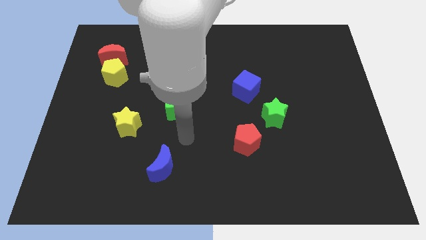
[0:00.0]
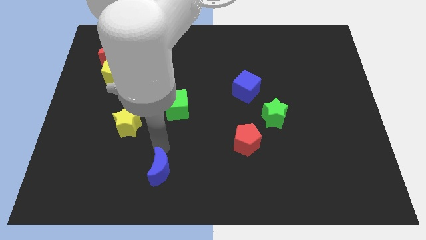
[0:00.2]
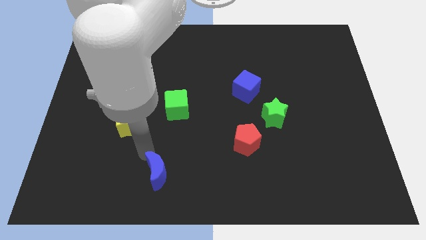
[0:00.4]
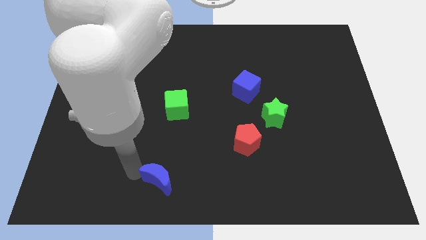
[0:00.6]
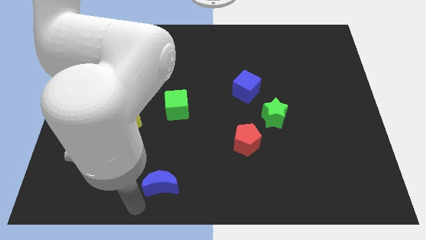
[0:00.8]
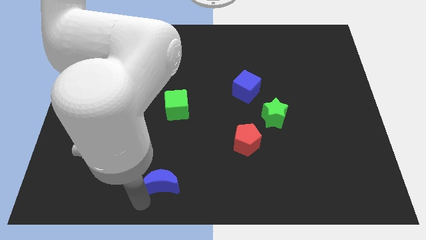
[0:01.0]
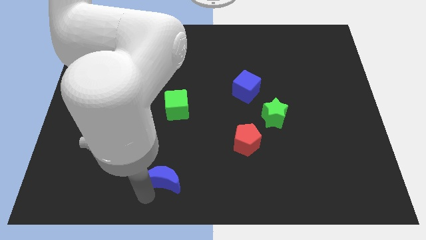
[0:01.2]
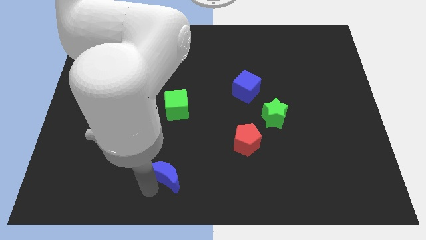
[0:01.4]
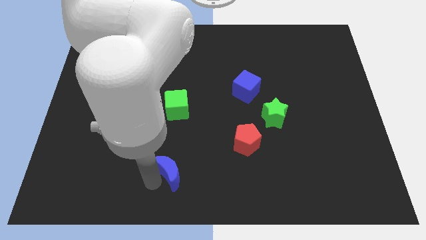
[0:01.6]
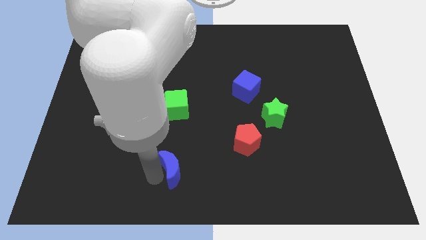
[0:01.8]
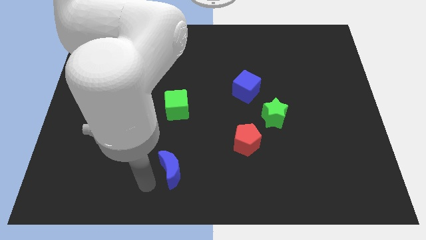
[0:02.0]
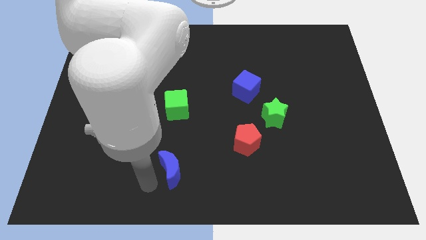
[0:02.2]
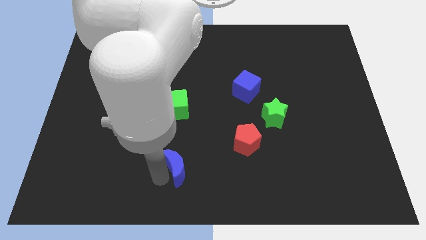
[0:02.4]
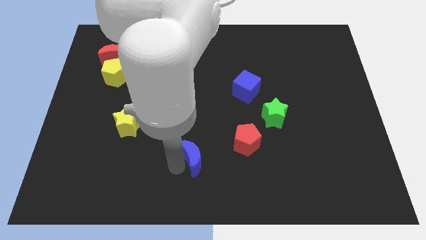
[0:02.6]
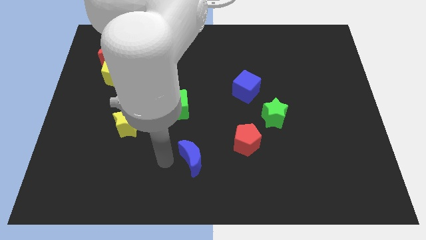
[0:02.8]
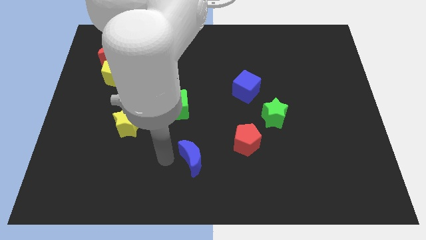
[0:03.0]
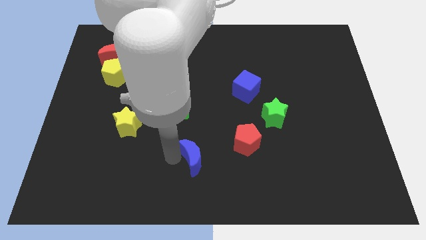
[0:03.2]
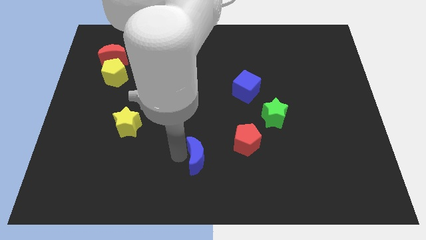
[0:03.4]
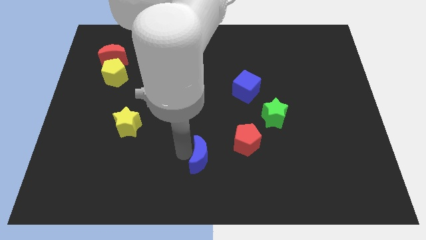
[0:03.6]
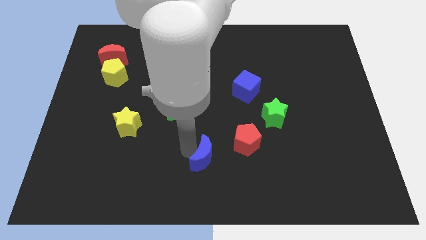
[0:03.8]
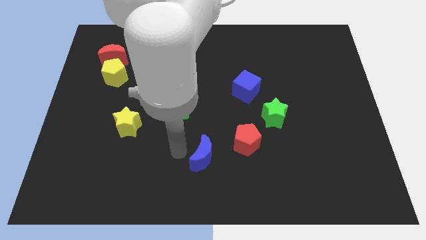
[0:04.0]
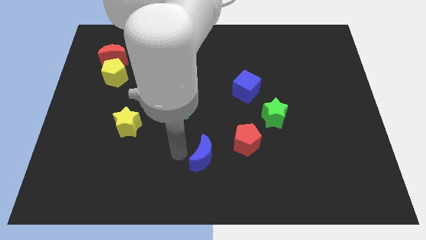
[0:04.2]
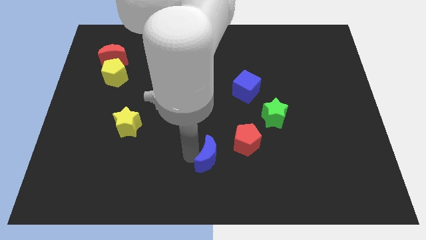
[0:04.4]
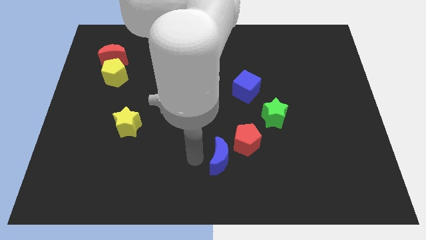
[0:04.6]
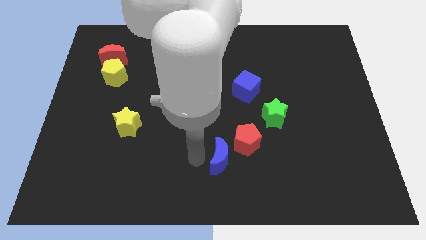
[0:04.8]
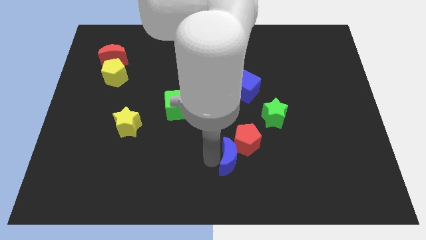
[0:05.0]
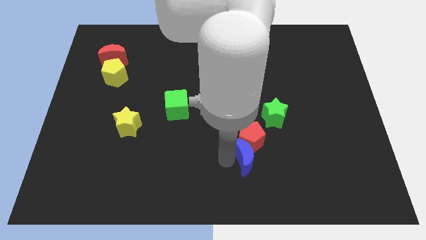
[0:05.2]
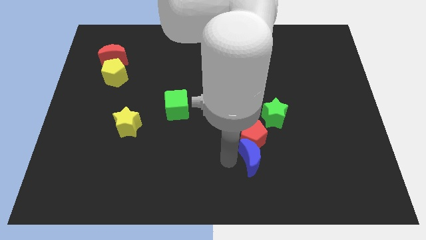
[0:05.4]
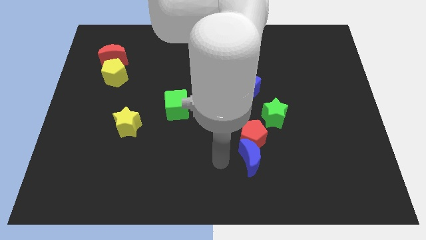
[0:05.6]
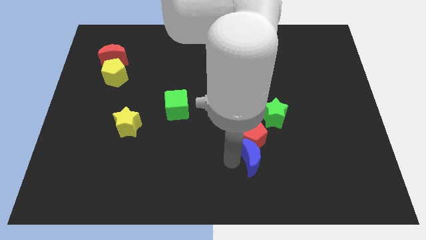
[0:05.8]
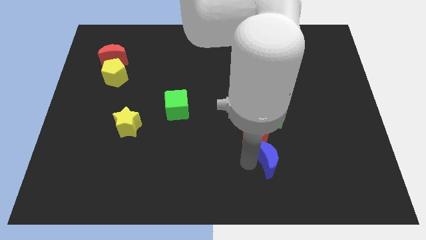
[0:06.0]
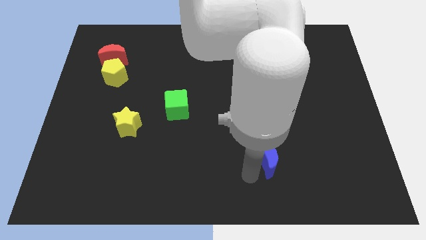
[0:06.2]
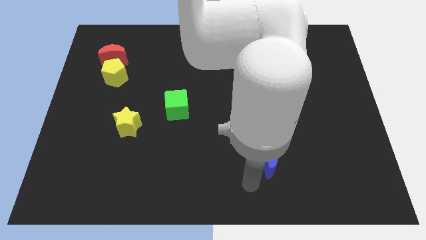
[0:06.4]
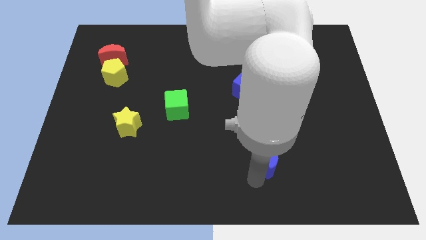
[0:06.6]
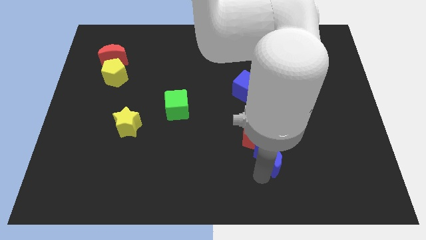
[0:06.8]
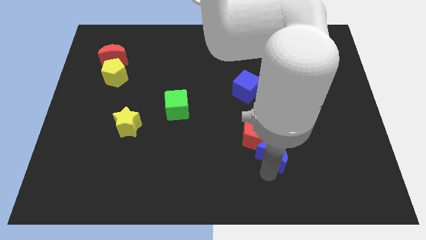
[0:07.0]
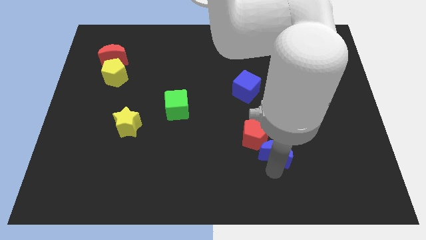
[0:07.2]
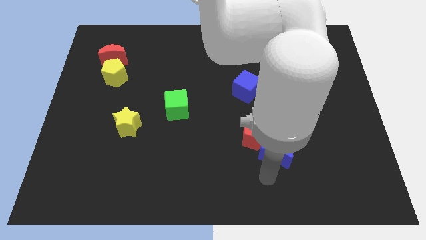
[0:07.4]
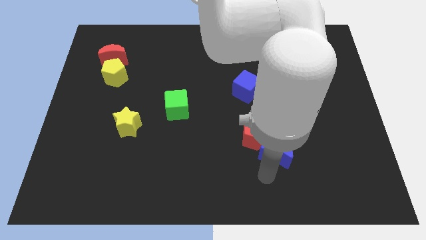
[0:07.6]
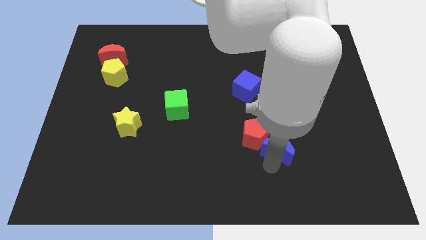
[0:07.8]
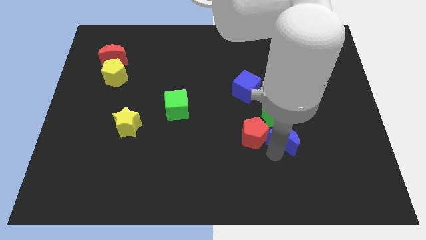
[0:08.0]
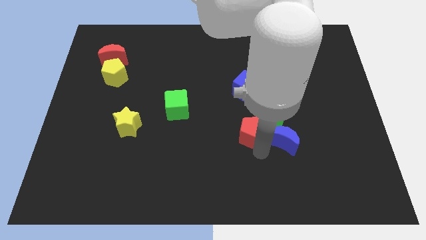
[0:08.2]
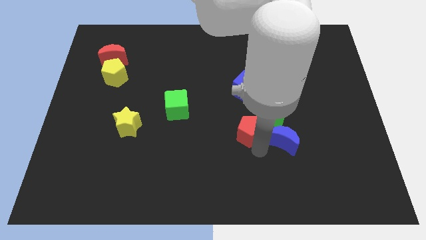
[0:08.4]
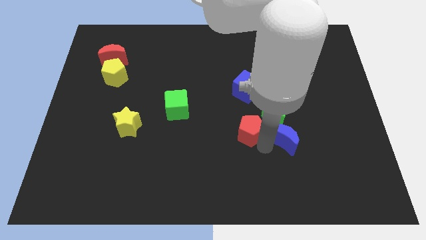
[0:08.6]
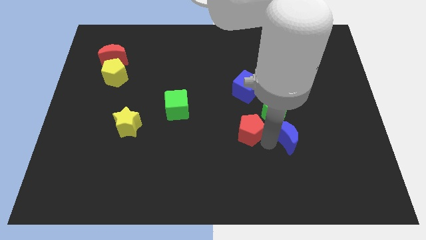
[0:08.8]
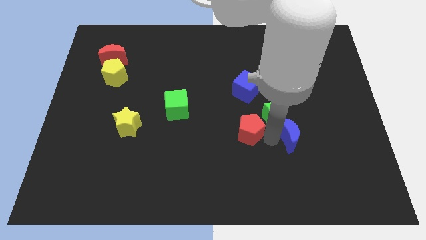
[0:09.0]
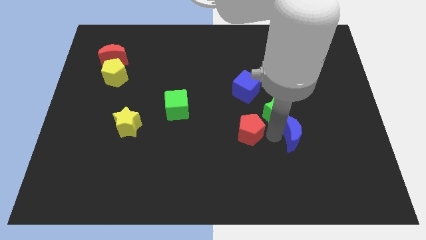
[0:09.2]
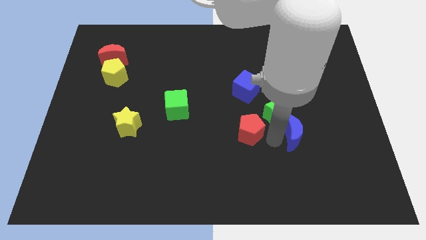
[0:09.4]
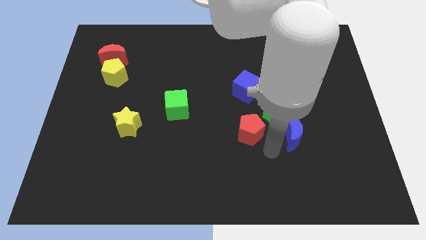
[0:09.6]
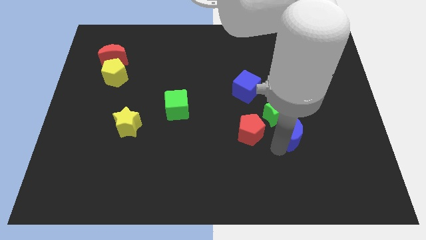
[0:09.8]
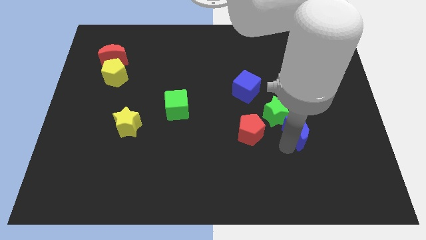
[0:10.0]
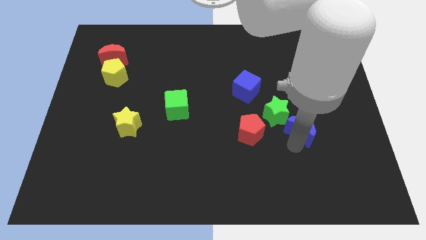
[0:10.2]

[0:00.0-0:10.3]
move the blue moon to the right side of the green star

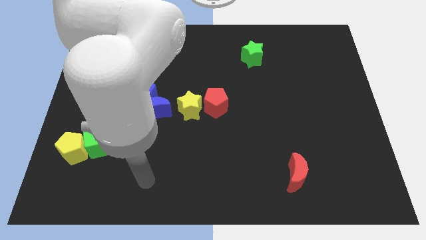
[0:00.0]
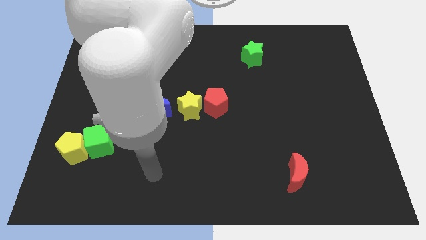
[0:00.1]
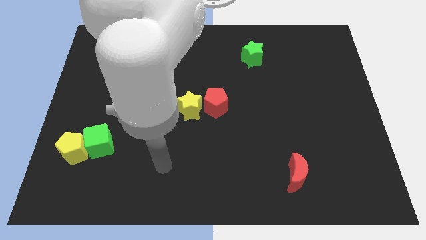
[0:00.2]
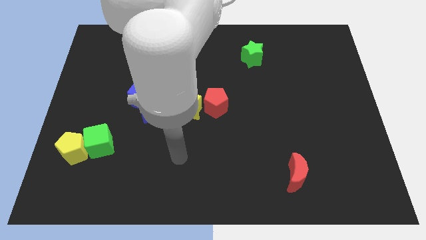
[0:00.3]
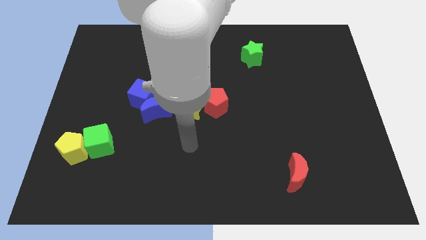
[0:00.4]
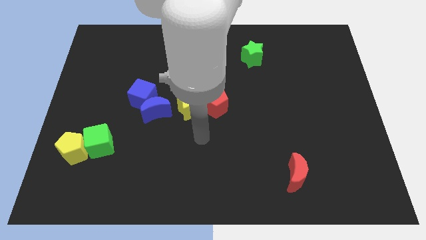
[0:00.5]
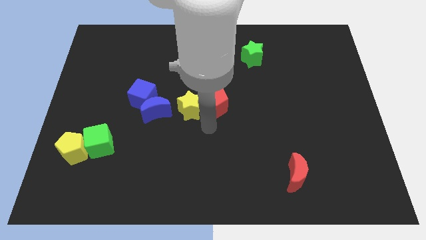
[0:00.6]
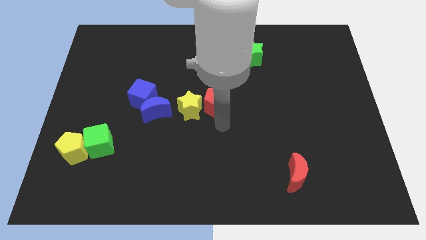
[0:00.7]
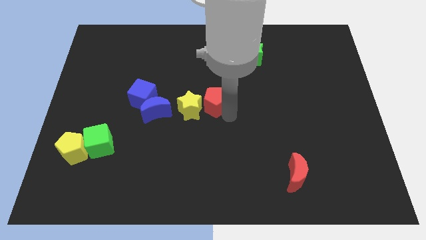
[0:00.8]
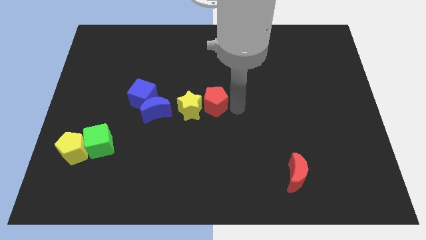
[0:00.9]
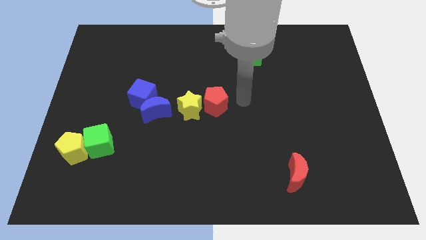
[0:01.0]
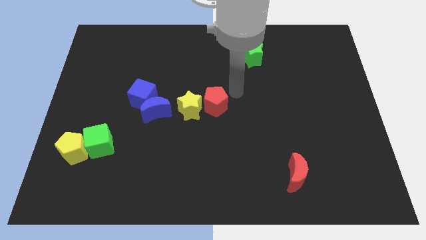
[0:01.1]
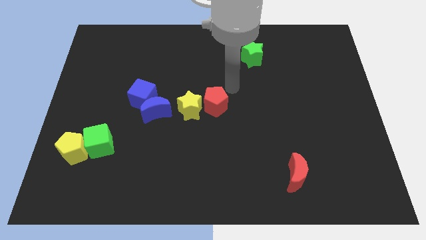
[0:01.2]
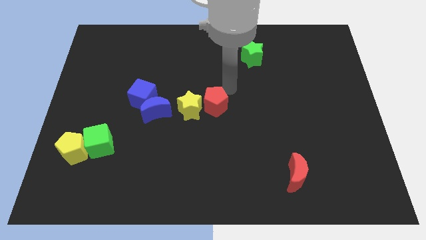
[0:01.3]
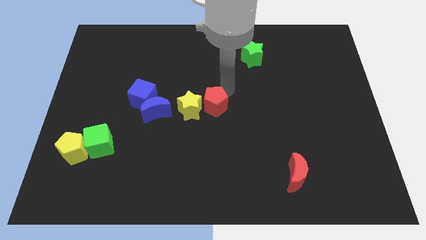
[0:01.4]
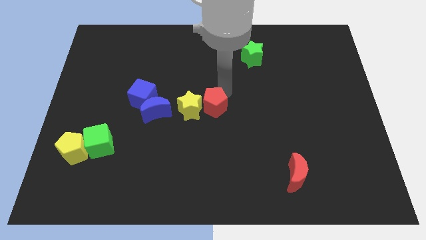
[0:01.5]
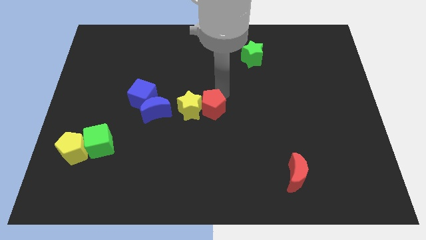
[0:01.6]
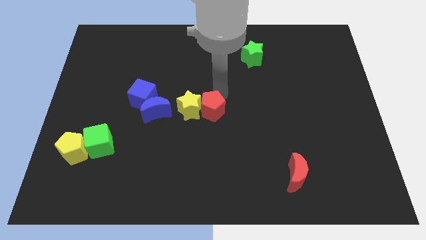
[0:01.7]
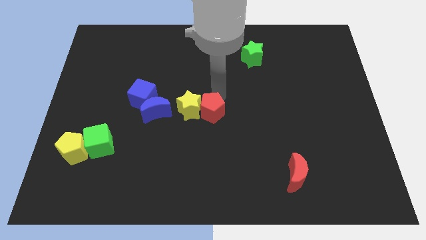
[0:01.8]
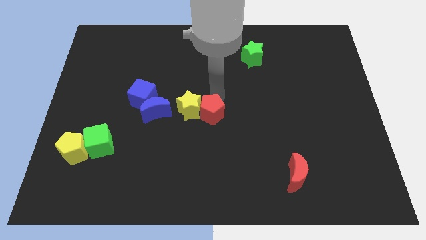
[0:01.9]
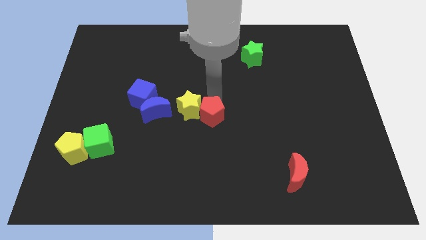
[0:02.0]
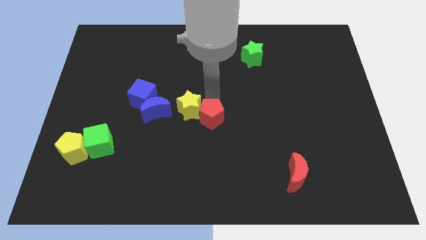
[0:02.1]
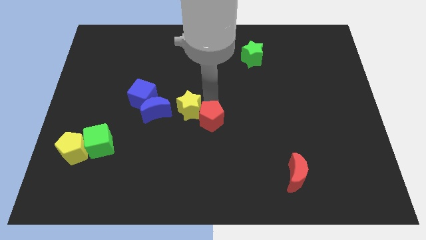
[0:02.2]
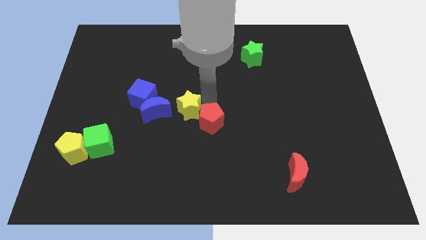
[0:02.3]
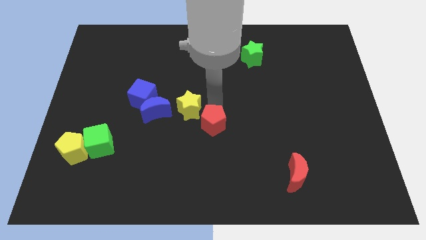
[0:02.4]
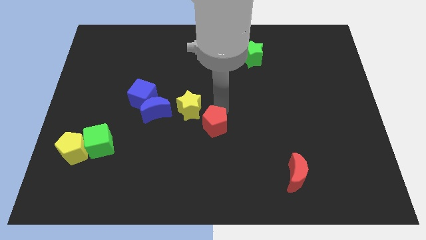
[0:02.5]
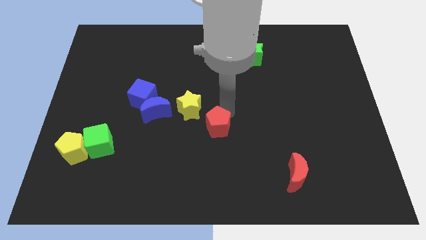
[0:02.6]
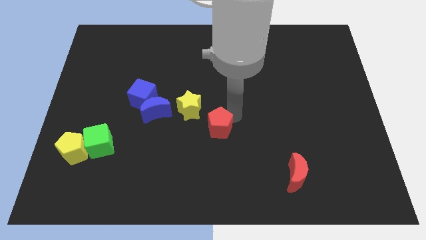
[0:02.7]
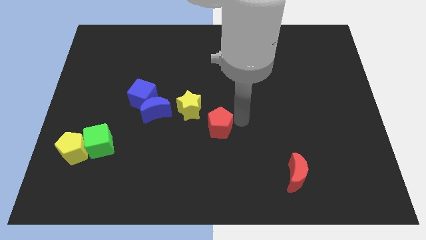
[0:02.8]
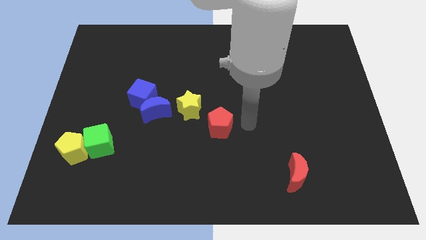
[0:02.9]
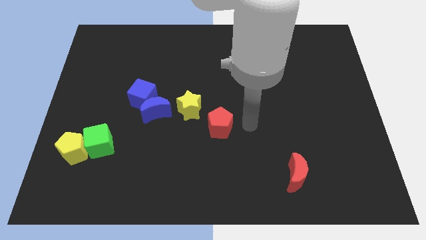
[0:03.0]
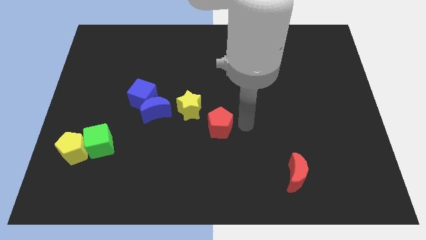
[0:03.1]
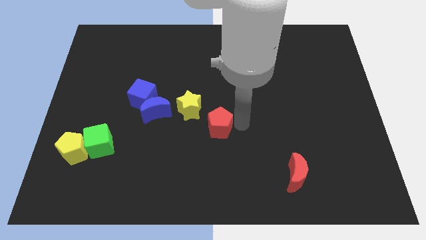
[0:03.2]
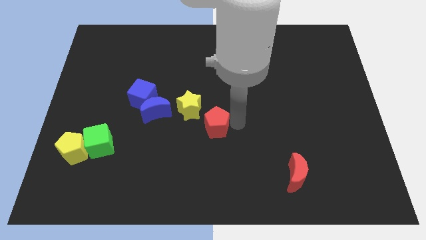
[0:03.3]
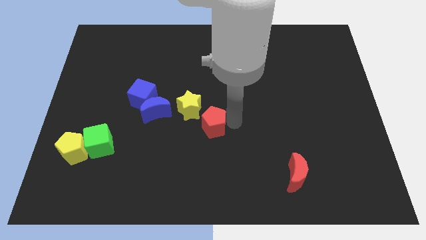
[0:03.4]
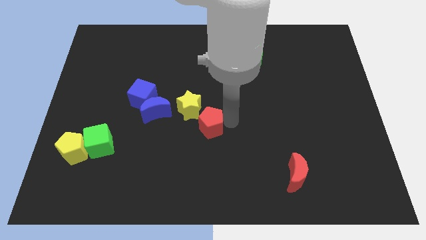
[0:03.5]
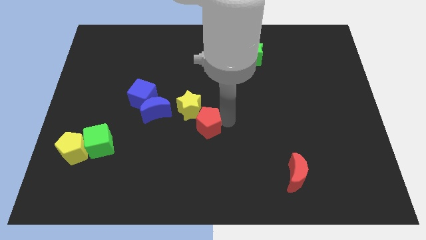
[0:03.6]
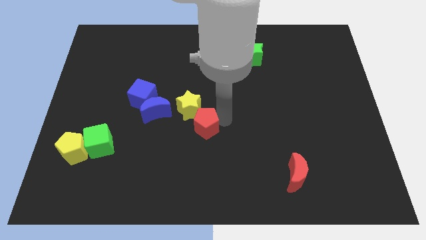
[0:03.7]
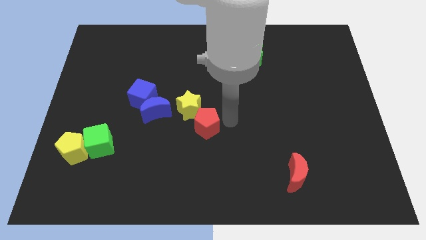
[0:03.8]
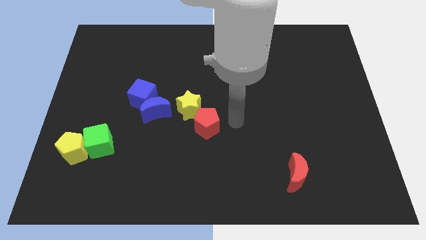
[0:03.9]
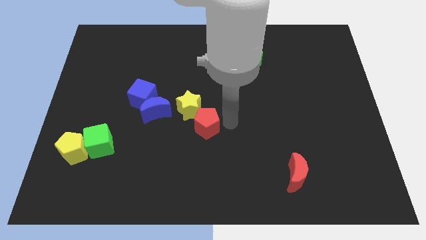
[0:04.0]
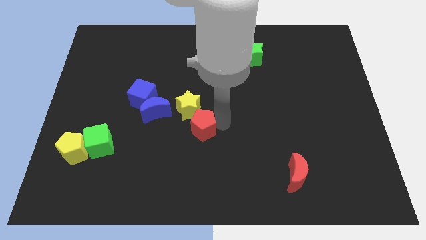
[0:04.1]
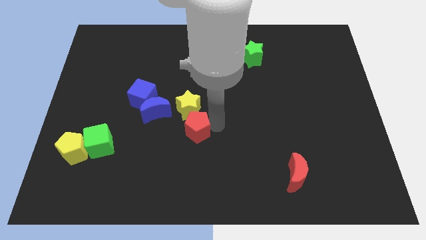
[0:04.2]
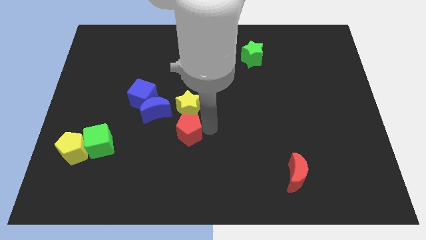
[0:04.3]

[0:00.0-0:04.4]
push the red pentagon to the bottom left side of the yellow star
